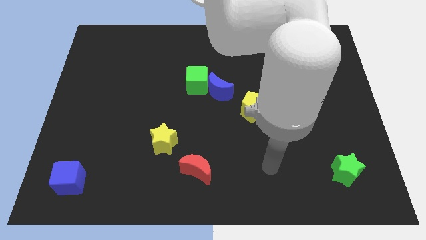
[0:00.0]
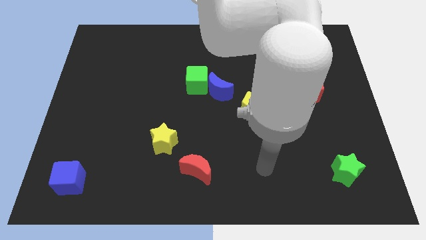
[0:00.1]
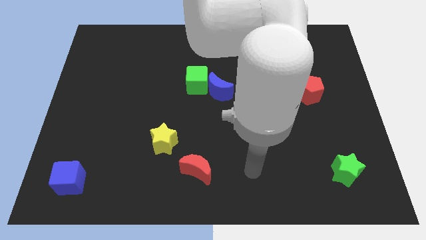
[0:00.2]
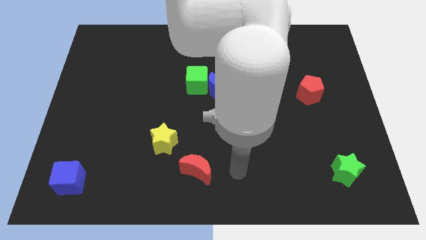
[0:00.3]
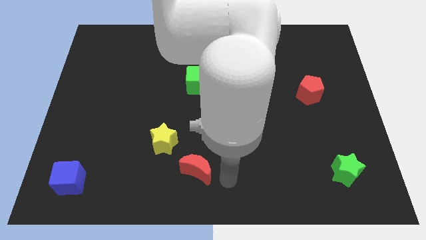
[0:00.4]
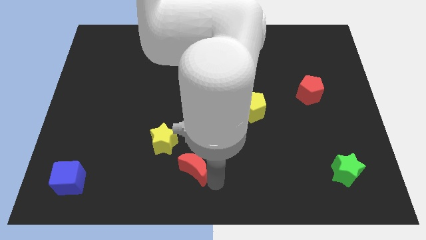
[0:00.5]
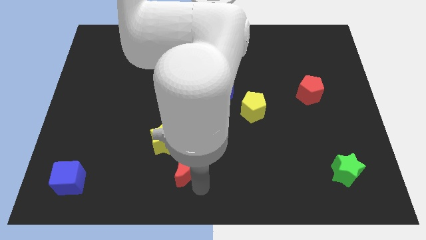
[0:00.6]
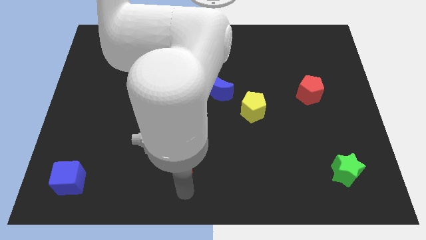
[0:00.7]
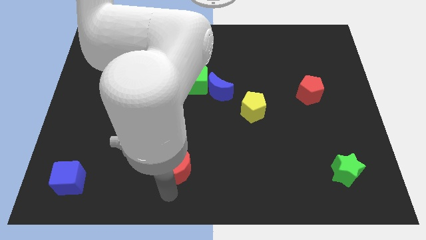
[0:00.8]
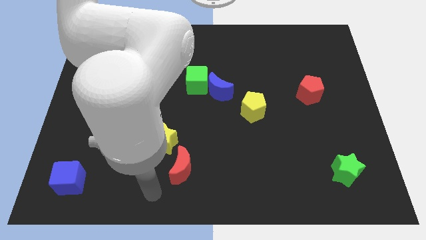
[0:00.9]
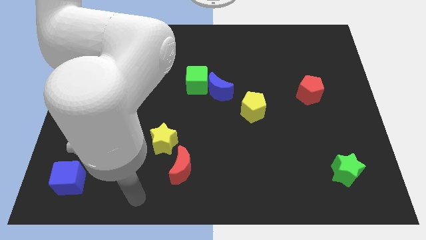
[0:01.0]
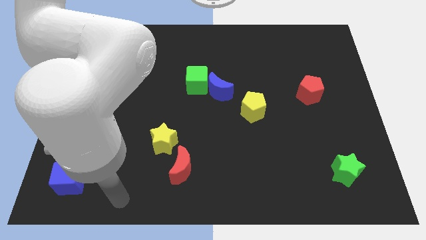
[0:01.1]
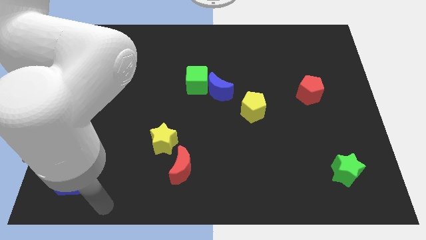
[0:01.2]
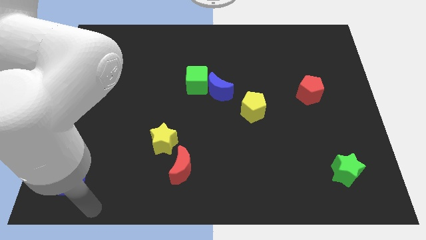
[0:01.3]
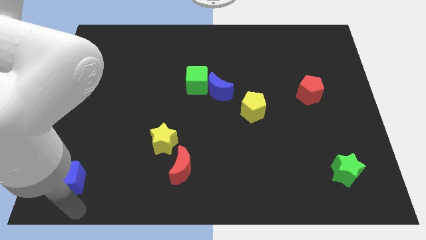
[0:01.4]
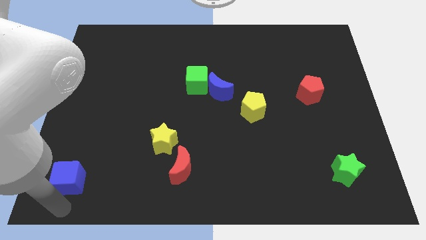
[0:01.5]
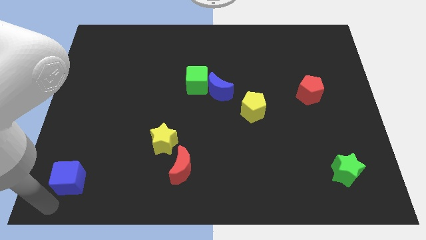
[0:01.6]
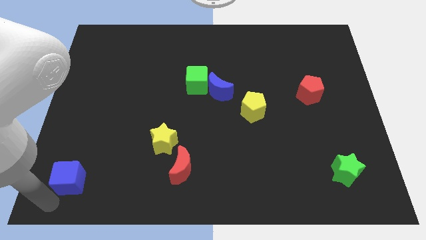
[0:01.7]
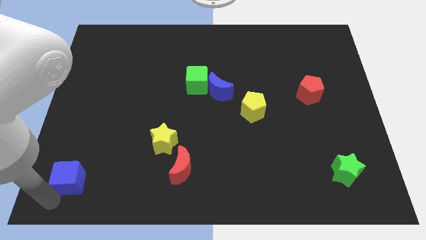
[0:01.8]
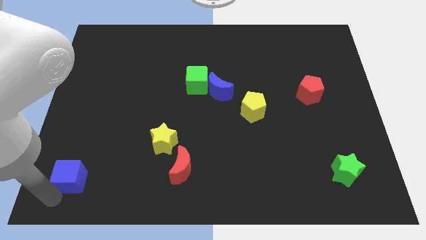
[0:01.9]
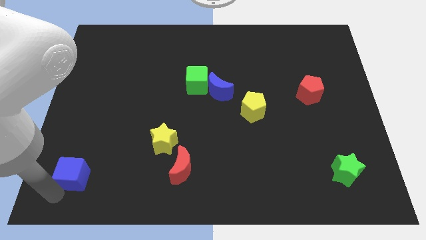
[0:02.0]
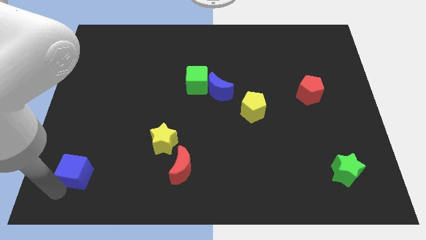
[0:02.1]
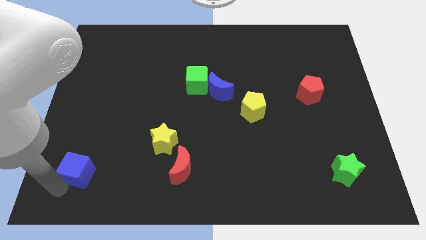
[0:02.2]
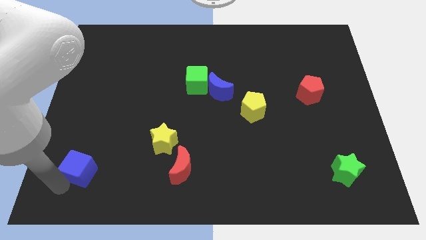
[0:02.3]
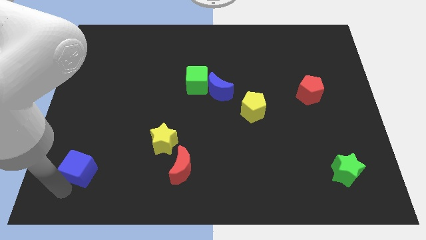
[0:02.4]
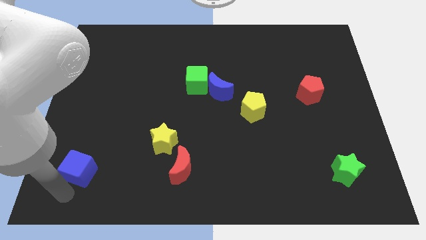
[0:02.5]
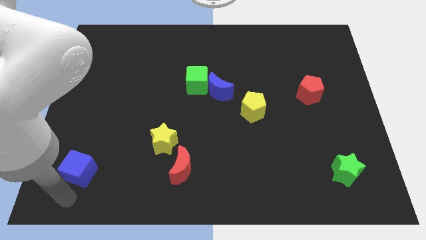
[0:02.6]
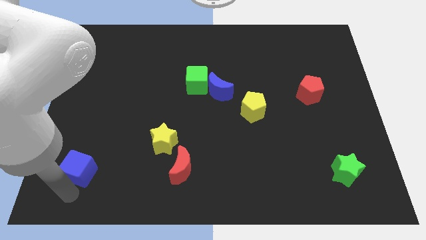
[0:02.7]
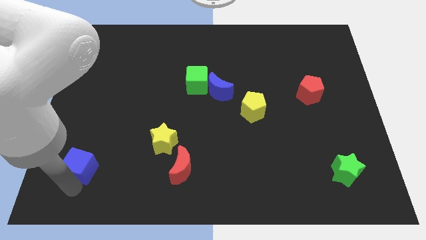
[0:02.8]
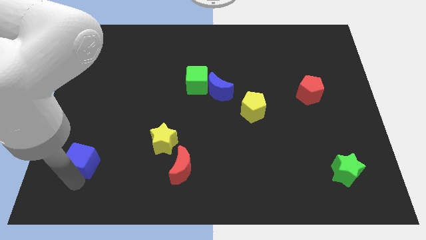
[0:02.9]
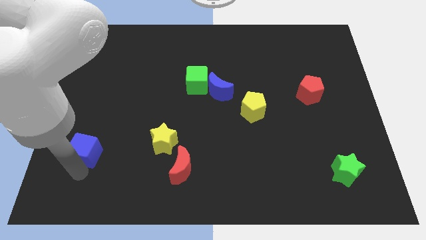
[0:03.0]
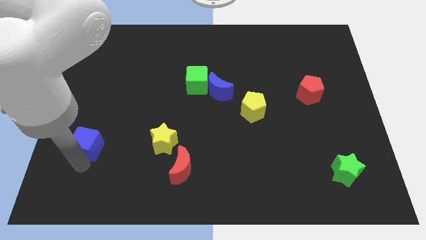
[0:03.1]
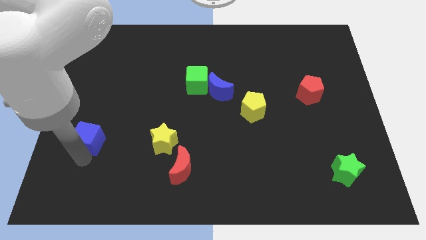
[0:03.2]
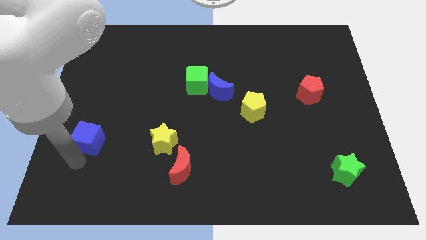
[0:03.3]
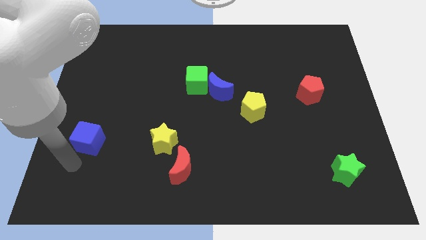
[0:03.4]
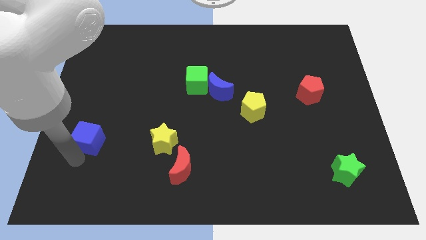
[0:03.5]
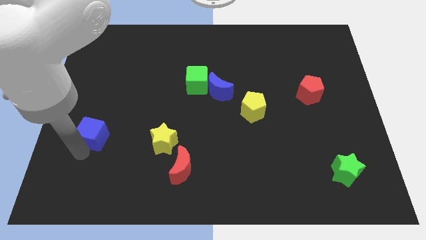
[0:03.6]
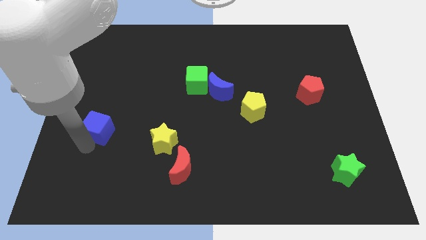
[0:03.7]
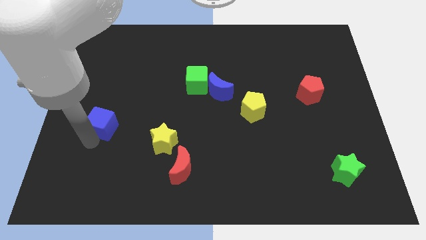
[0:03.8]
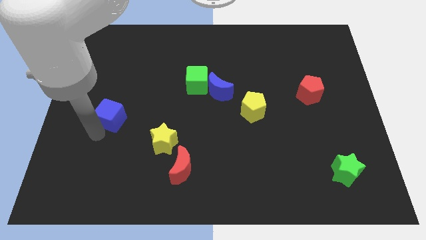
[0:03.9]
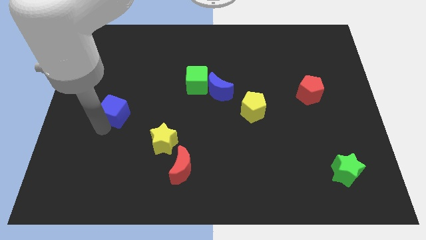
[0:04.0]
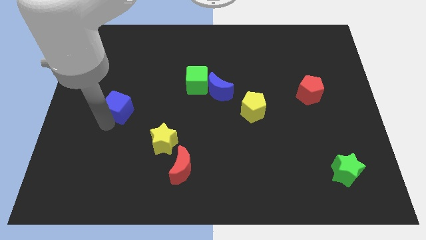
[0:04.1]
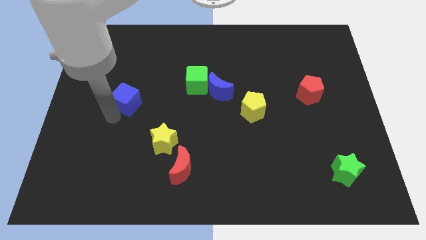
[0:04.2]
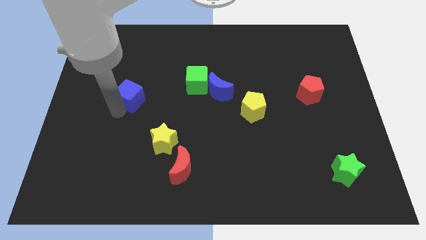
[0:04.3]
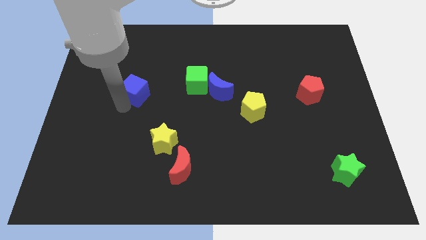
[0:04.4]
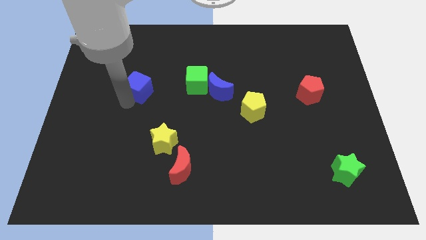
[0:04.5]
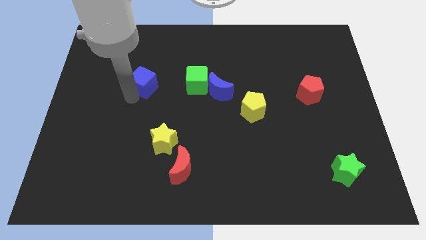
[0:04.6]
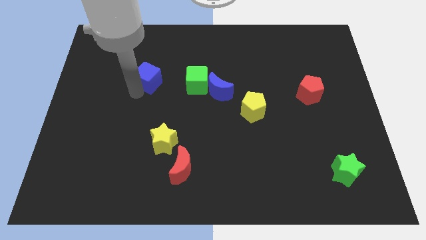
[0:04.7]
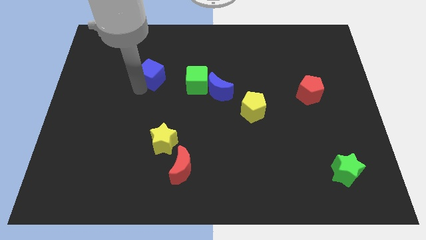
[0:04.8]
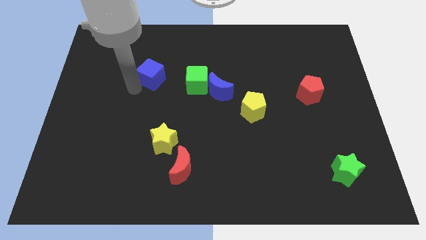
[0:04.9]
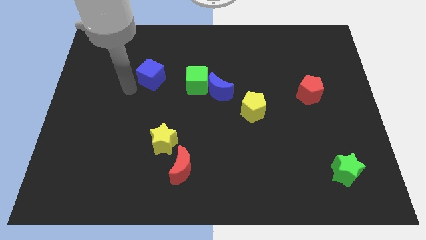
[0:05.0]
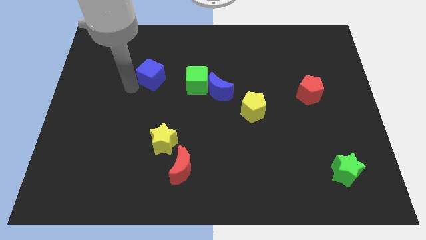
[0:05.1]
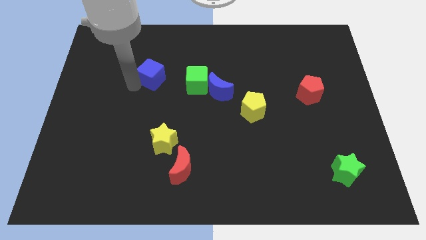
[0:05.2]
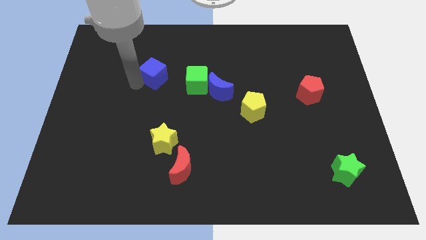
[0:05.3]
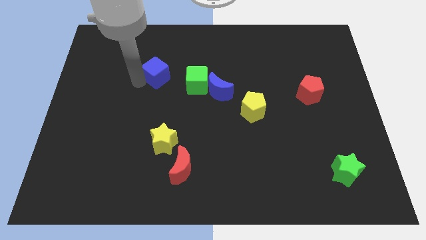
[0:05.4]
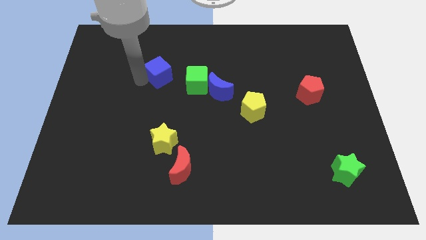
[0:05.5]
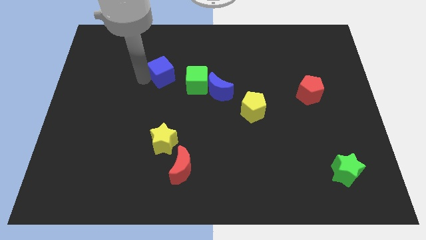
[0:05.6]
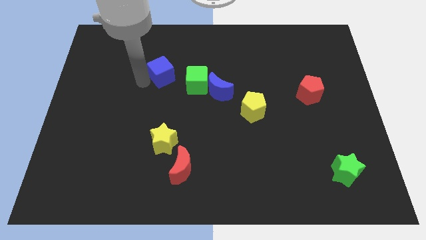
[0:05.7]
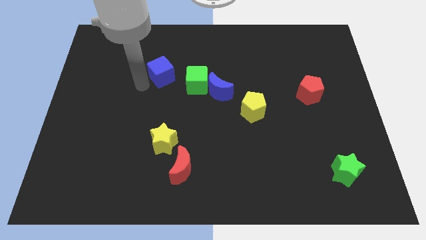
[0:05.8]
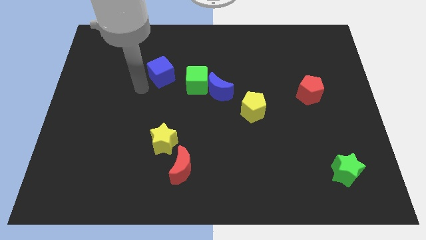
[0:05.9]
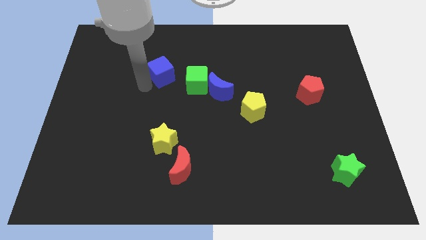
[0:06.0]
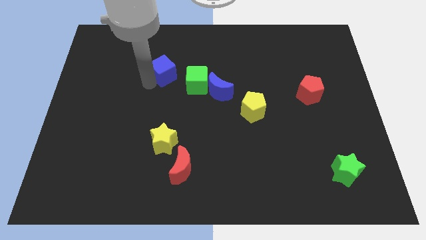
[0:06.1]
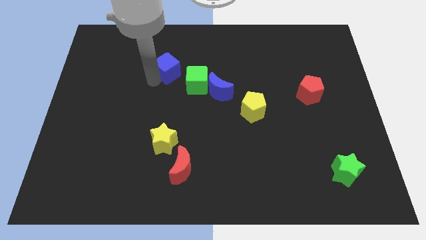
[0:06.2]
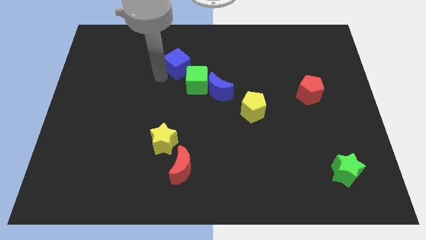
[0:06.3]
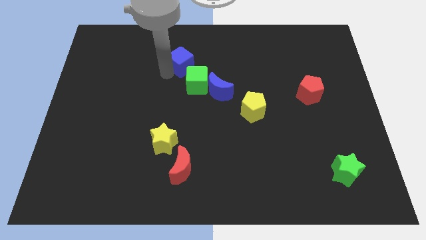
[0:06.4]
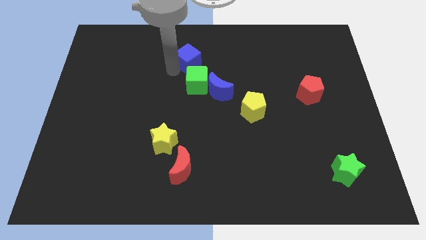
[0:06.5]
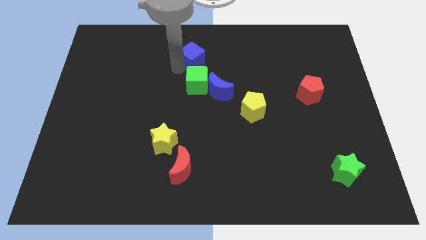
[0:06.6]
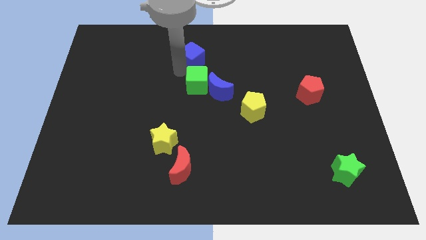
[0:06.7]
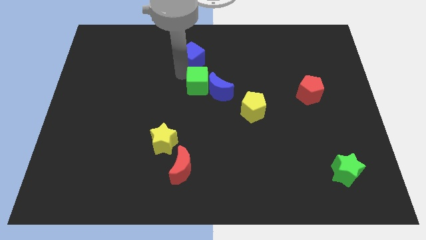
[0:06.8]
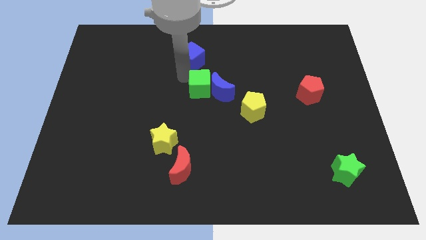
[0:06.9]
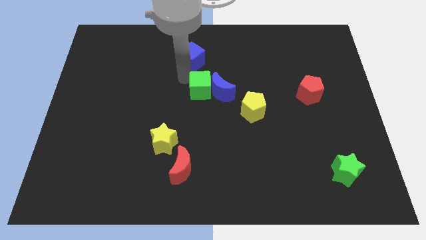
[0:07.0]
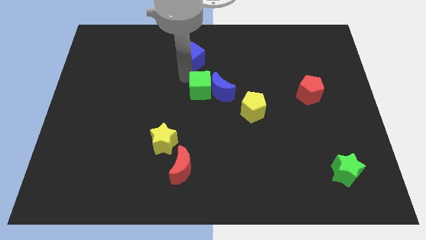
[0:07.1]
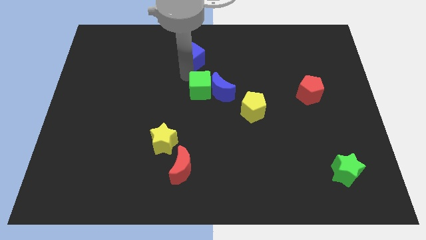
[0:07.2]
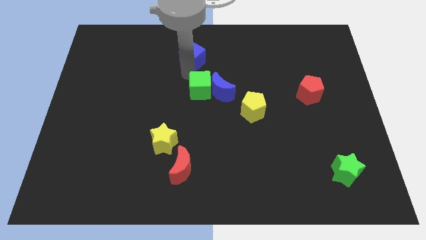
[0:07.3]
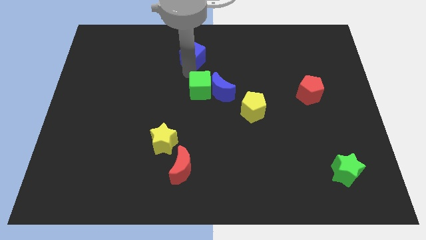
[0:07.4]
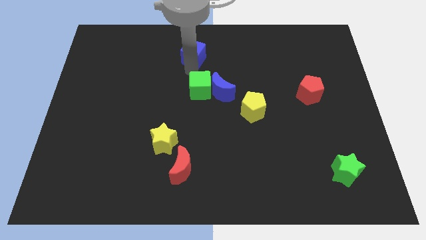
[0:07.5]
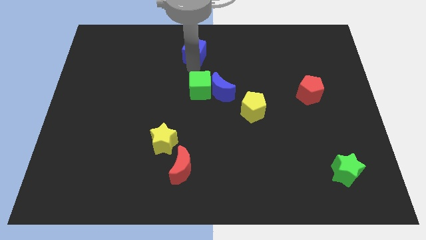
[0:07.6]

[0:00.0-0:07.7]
put the blue cube to the top side
